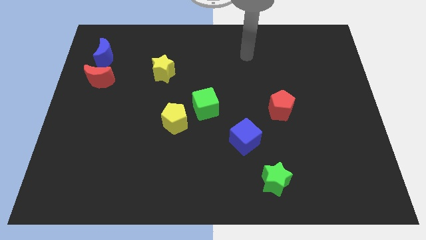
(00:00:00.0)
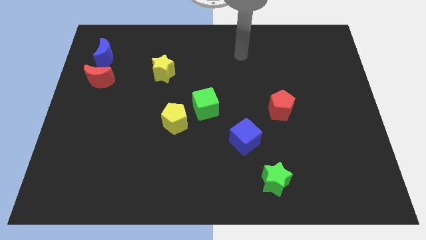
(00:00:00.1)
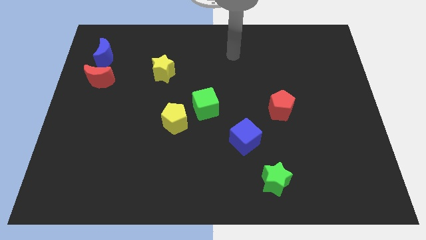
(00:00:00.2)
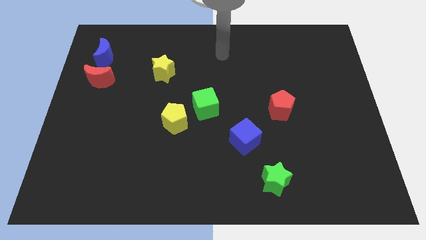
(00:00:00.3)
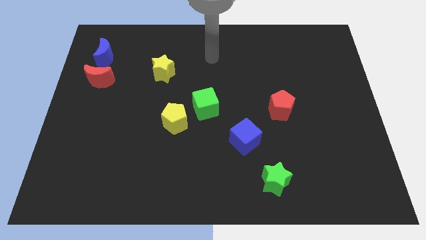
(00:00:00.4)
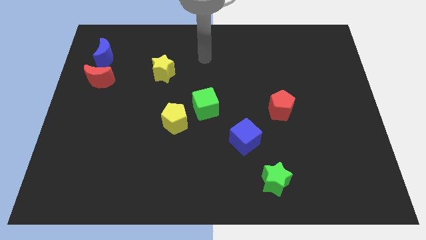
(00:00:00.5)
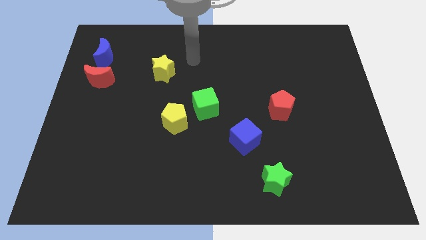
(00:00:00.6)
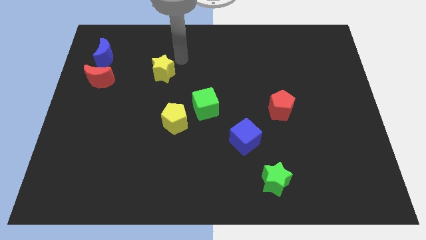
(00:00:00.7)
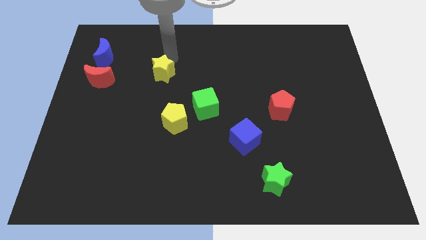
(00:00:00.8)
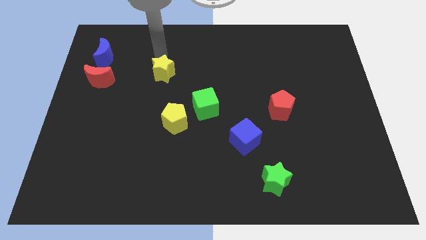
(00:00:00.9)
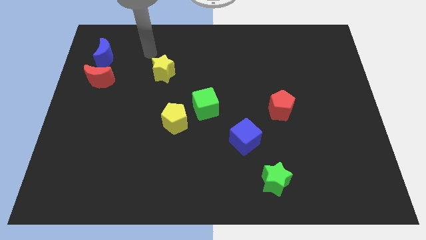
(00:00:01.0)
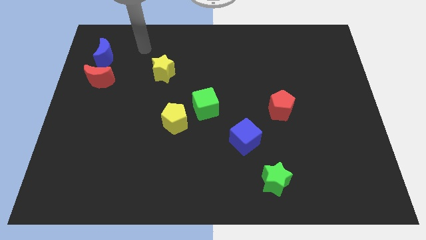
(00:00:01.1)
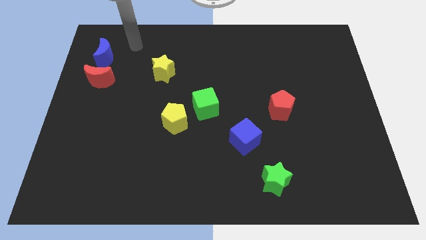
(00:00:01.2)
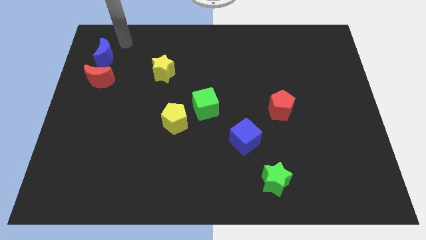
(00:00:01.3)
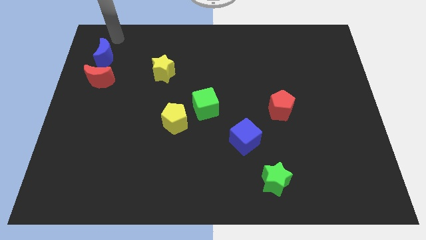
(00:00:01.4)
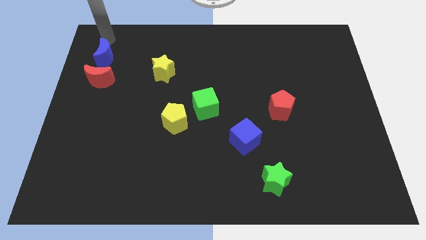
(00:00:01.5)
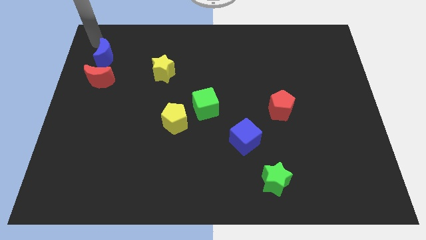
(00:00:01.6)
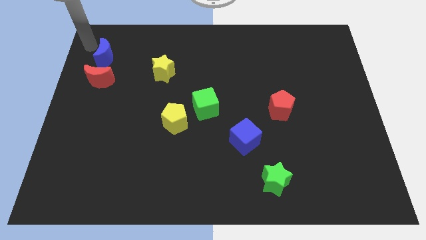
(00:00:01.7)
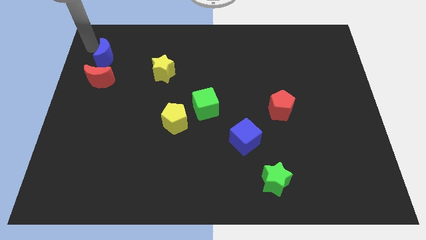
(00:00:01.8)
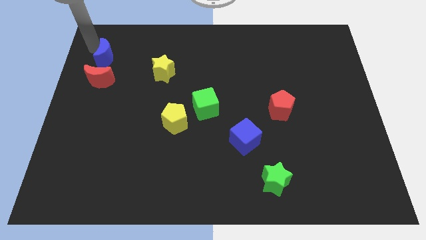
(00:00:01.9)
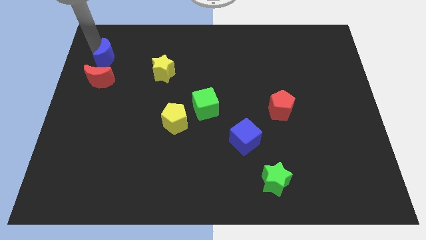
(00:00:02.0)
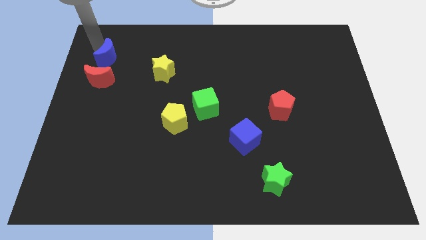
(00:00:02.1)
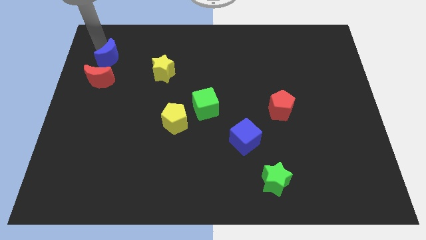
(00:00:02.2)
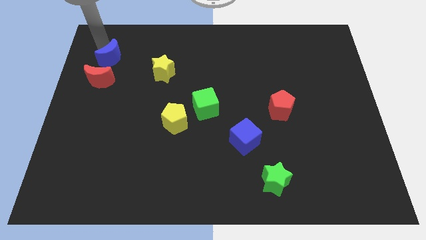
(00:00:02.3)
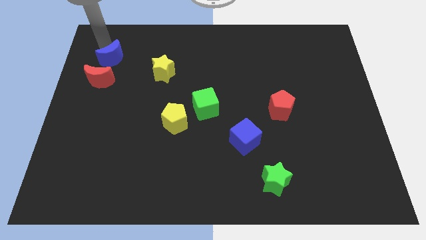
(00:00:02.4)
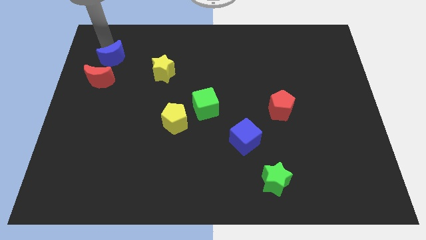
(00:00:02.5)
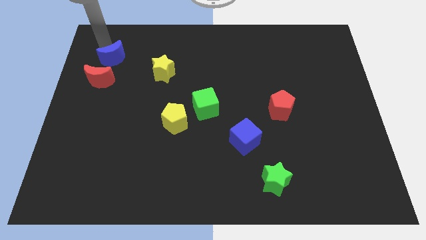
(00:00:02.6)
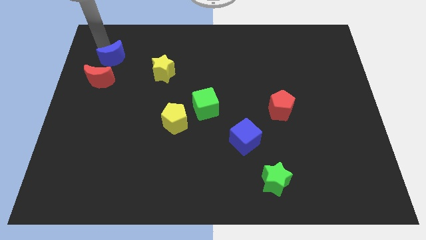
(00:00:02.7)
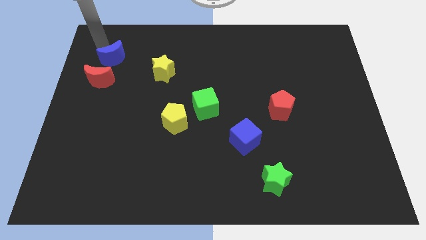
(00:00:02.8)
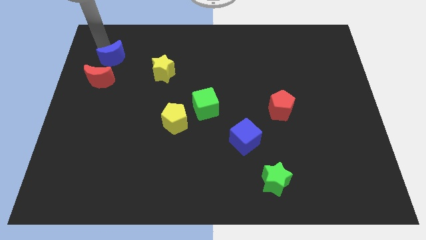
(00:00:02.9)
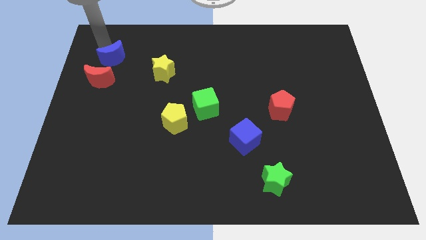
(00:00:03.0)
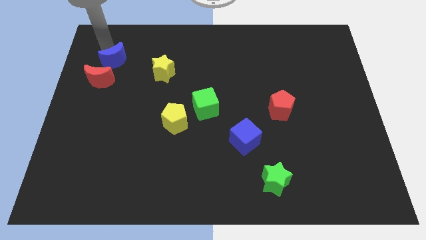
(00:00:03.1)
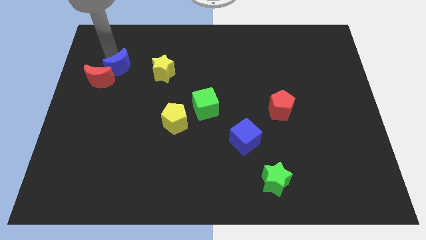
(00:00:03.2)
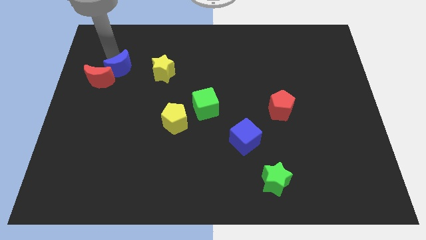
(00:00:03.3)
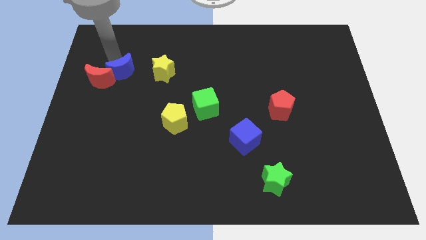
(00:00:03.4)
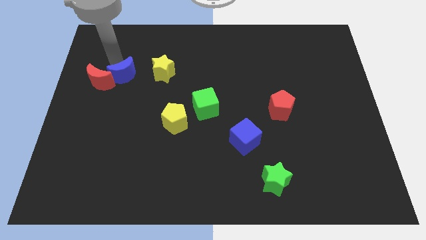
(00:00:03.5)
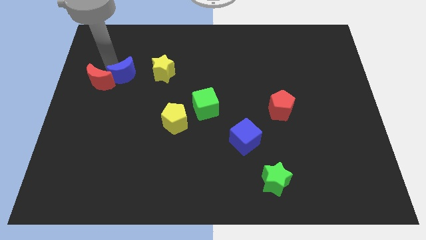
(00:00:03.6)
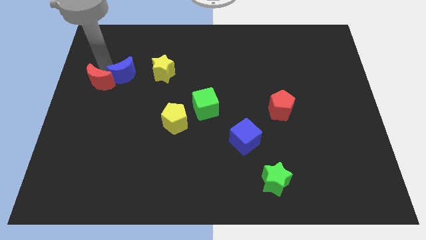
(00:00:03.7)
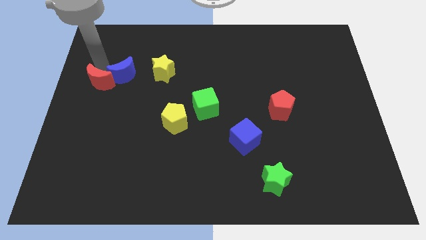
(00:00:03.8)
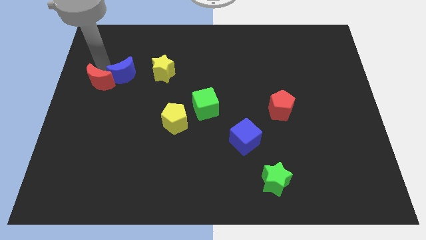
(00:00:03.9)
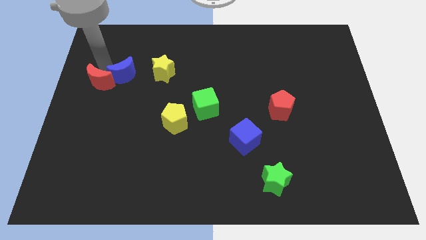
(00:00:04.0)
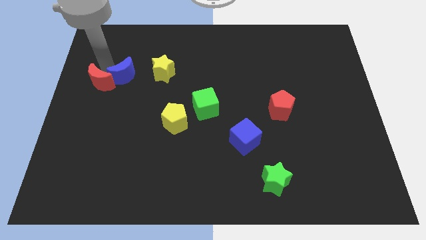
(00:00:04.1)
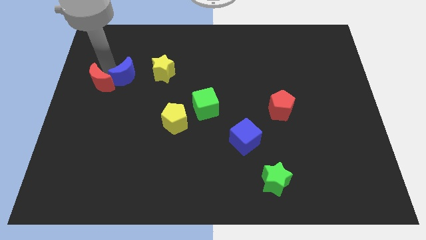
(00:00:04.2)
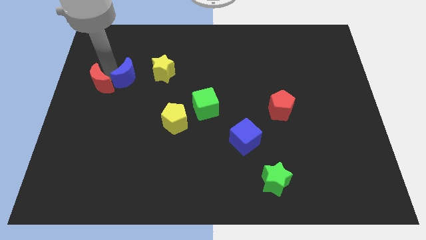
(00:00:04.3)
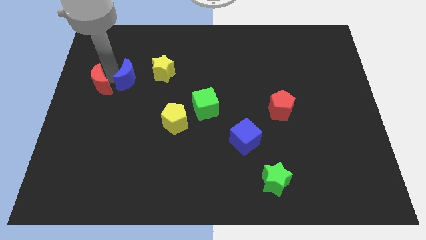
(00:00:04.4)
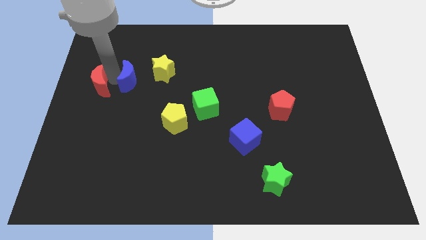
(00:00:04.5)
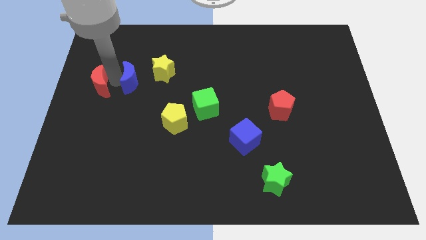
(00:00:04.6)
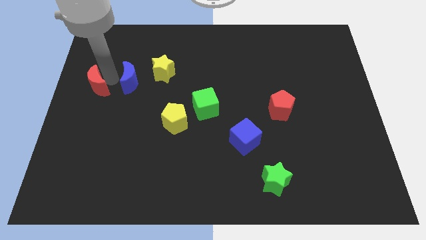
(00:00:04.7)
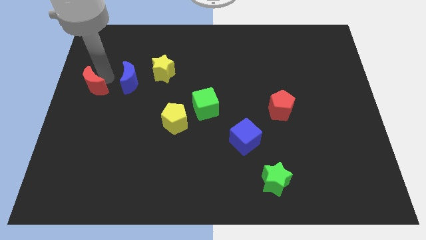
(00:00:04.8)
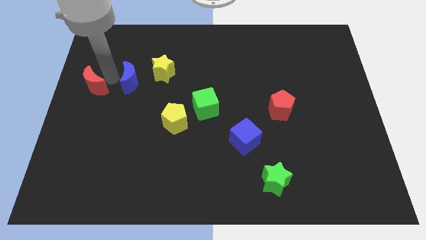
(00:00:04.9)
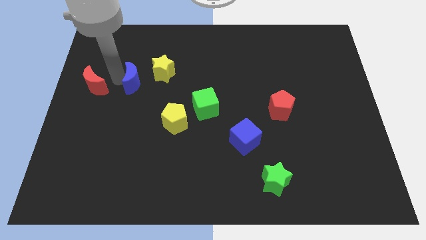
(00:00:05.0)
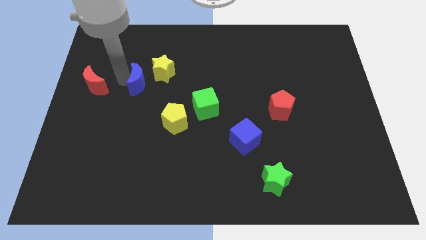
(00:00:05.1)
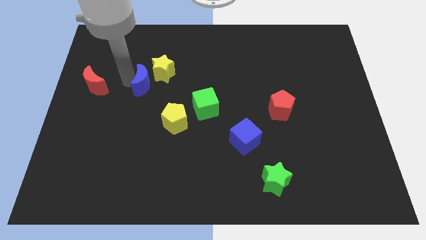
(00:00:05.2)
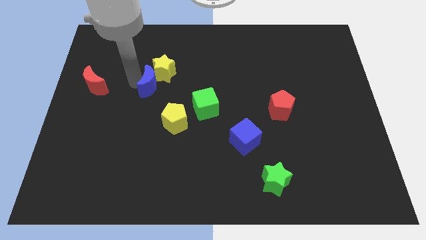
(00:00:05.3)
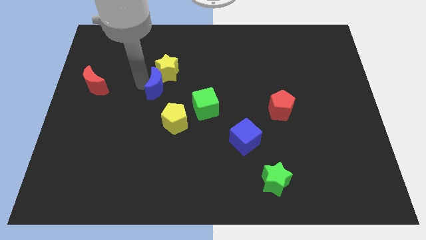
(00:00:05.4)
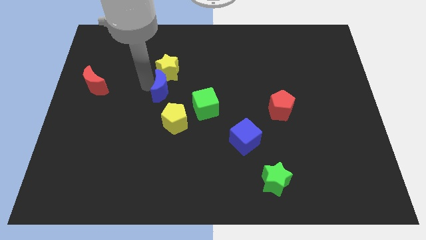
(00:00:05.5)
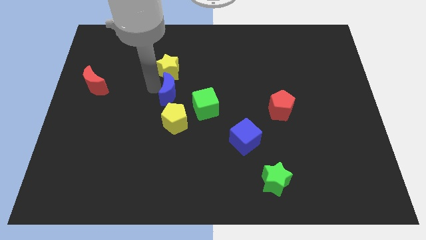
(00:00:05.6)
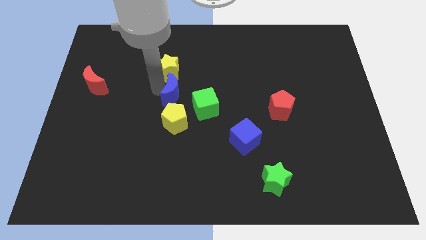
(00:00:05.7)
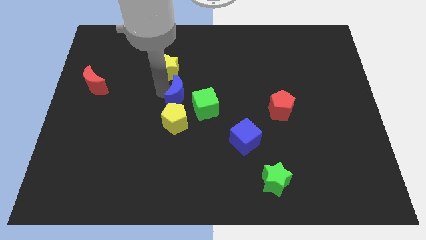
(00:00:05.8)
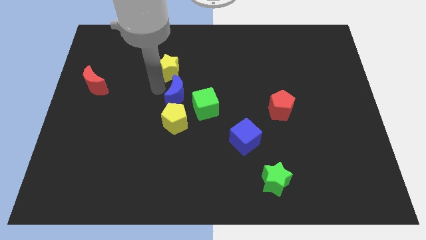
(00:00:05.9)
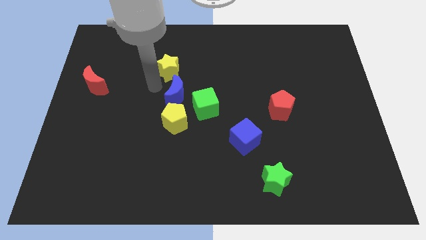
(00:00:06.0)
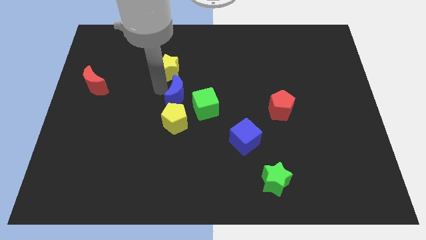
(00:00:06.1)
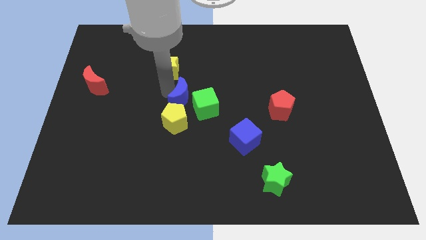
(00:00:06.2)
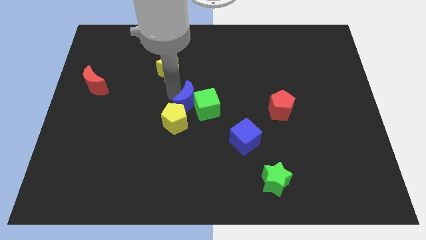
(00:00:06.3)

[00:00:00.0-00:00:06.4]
move the blue moon to the green cube

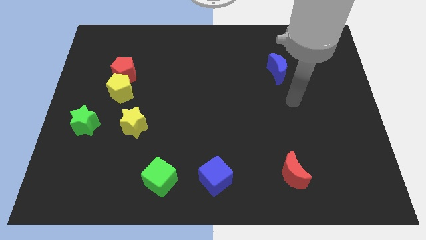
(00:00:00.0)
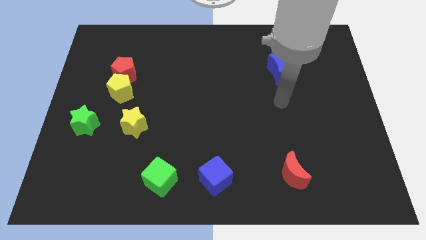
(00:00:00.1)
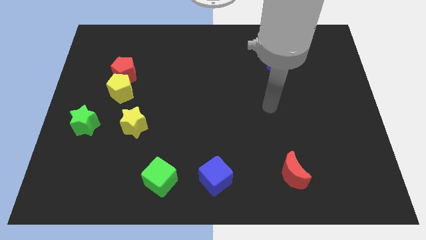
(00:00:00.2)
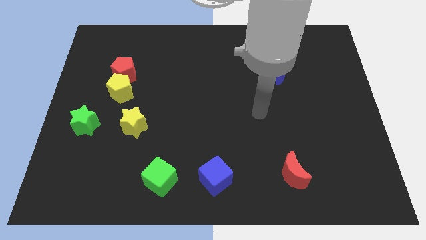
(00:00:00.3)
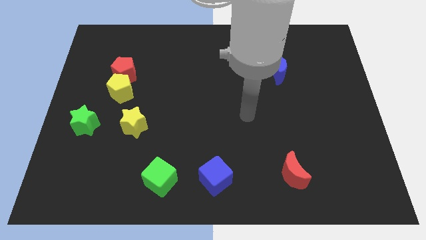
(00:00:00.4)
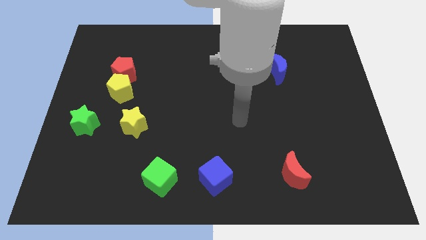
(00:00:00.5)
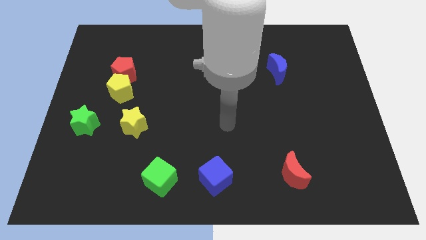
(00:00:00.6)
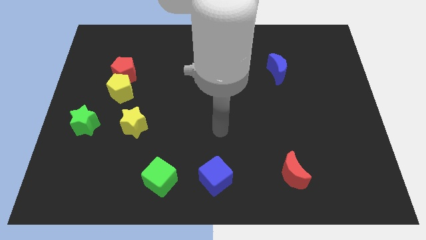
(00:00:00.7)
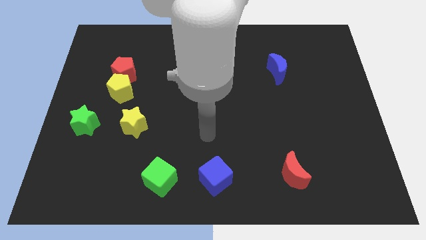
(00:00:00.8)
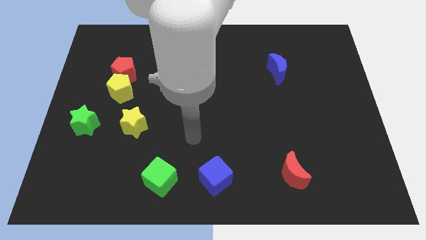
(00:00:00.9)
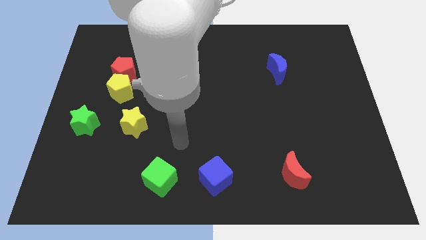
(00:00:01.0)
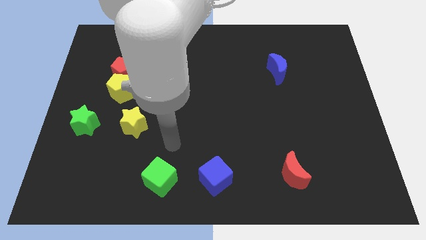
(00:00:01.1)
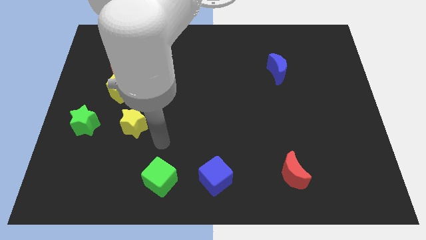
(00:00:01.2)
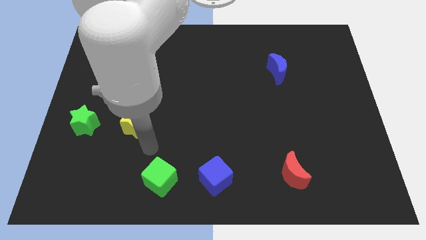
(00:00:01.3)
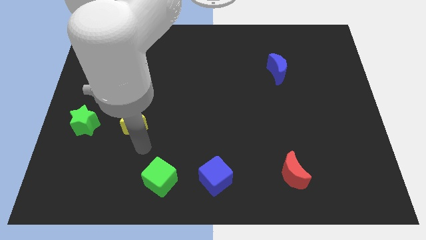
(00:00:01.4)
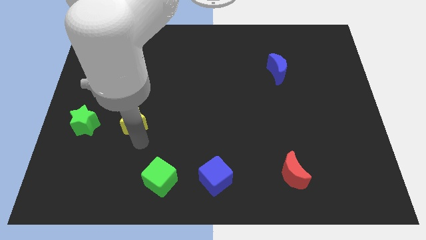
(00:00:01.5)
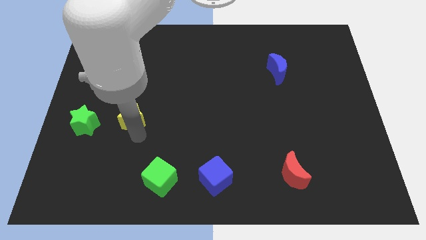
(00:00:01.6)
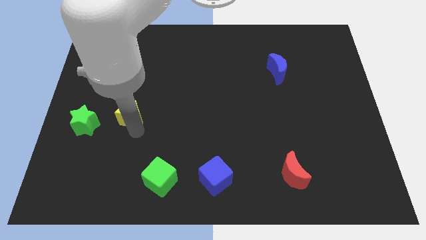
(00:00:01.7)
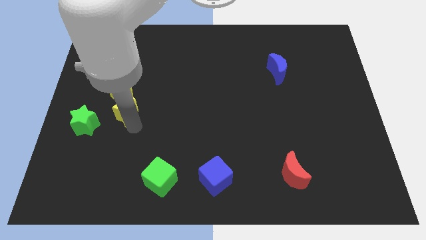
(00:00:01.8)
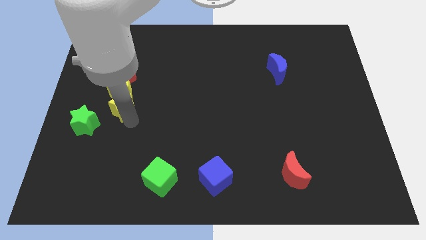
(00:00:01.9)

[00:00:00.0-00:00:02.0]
push the yellow star to the yellow pentagon
